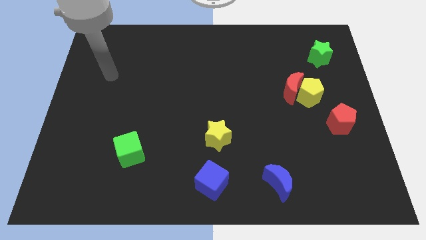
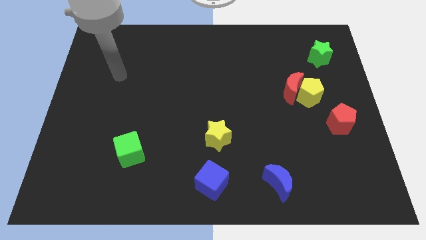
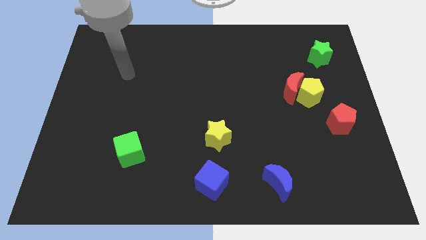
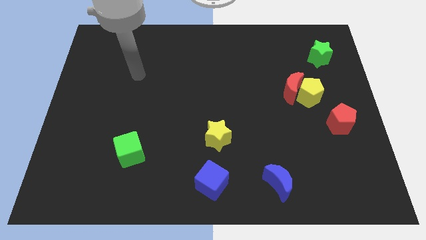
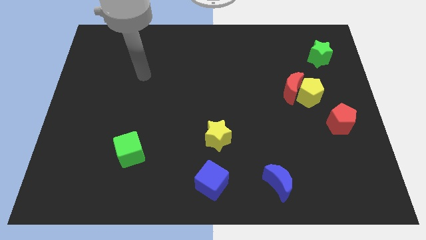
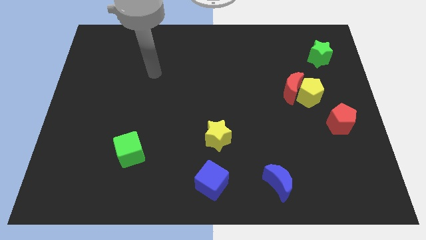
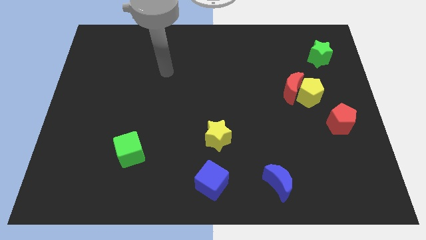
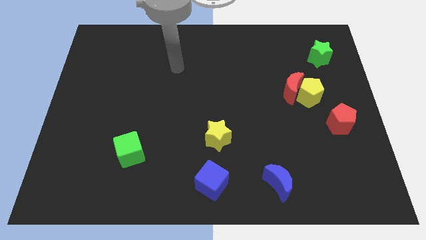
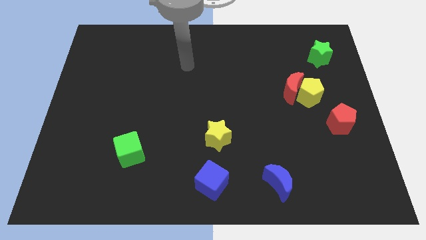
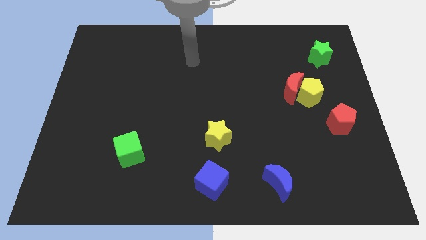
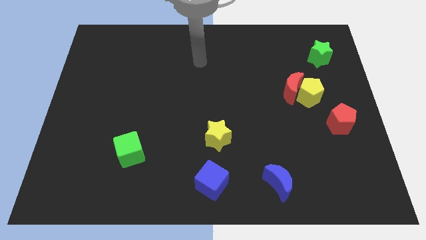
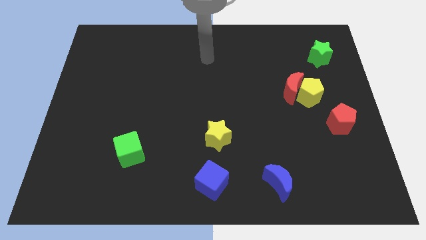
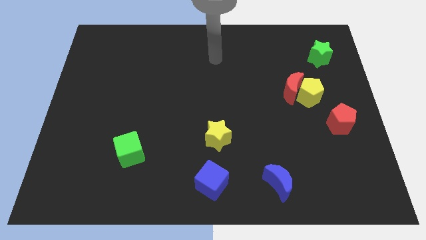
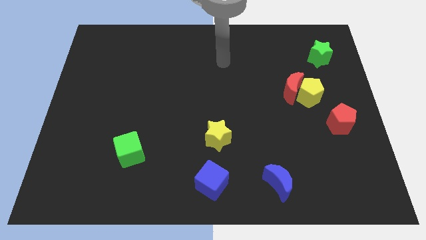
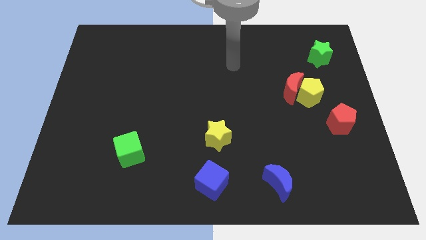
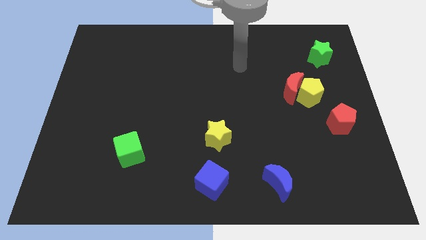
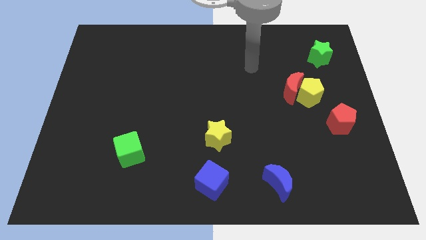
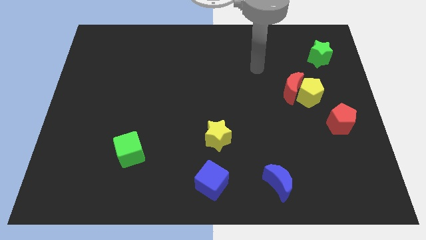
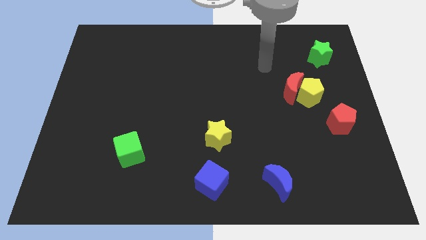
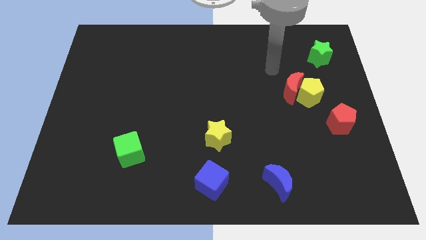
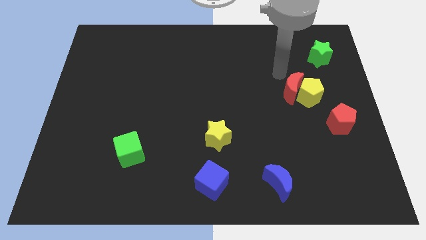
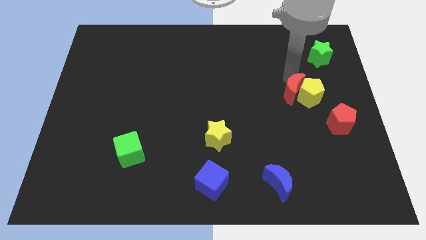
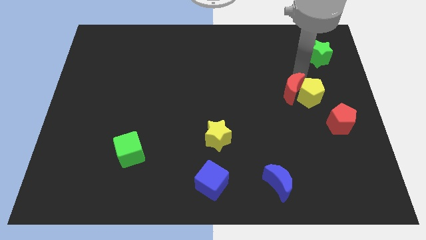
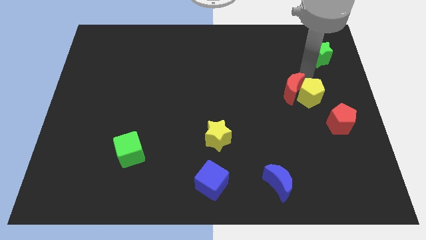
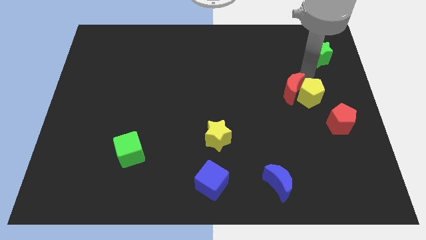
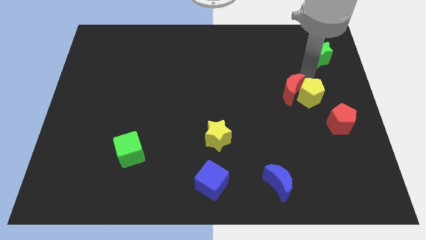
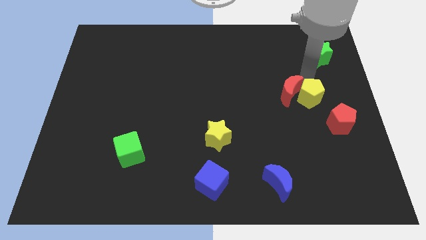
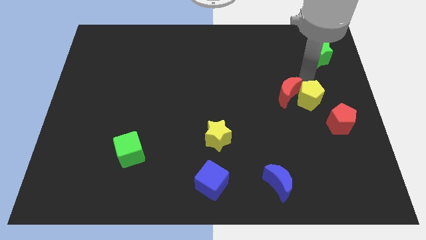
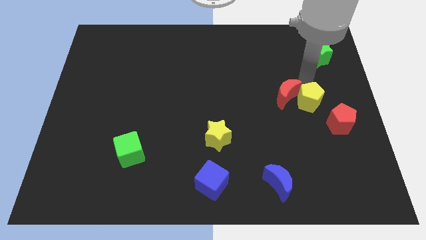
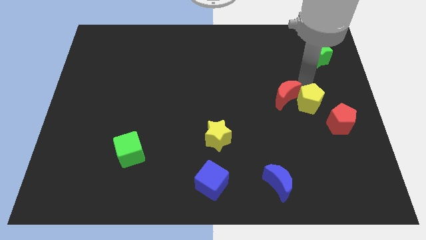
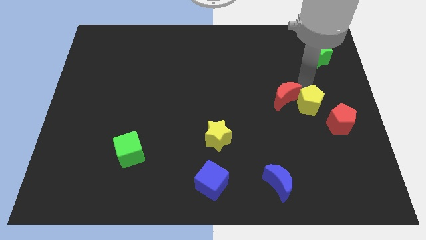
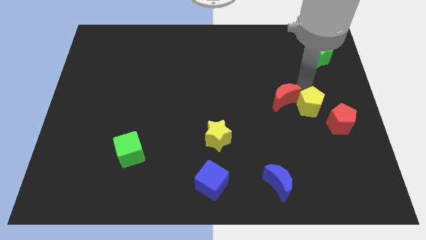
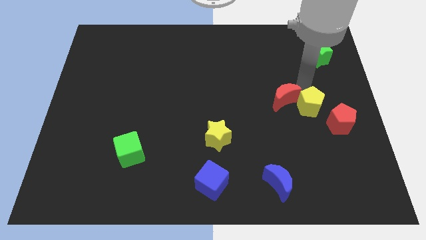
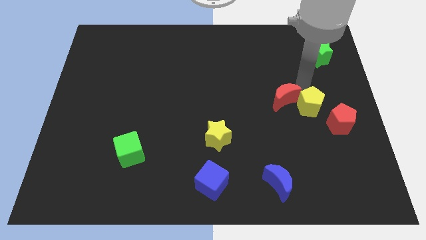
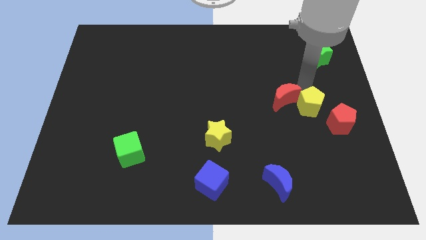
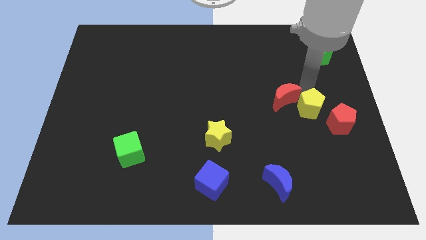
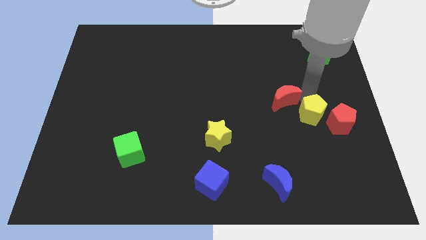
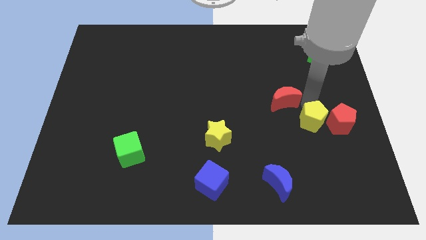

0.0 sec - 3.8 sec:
slide the yellow pentagon down a bit

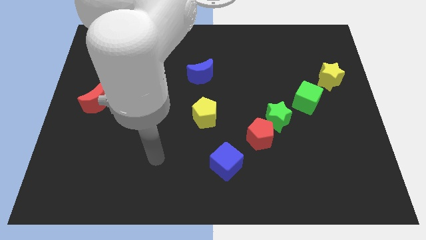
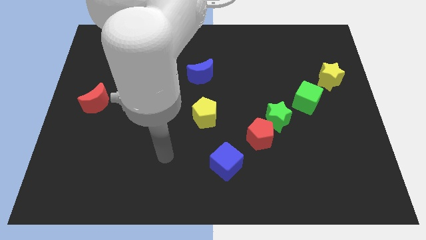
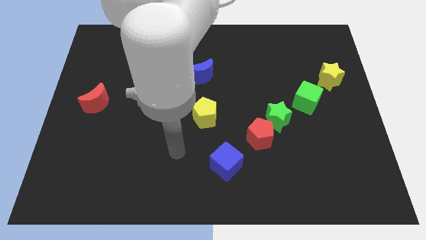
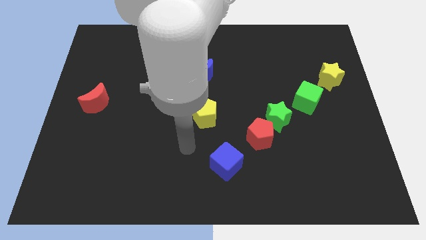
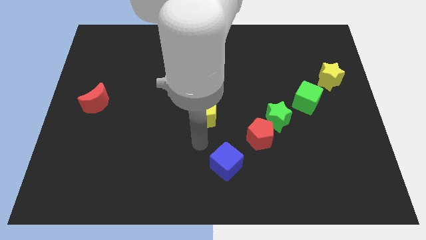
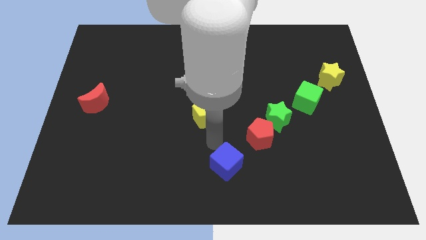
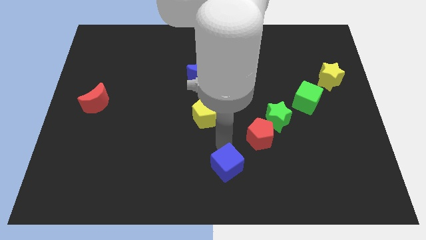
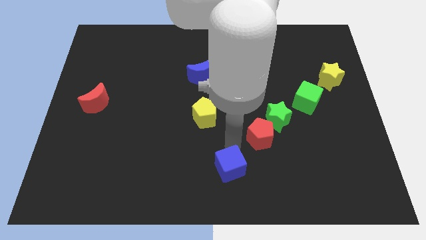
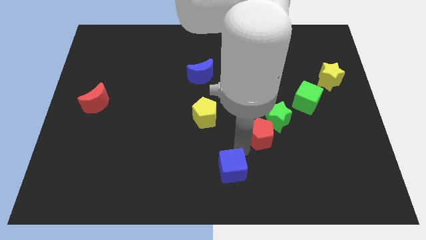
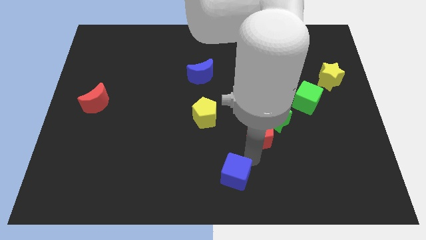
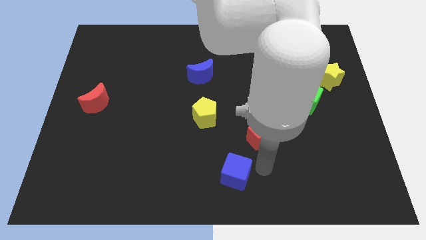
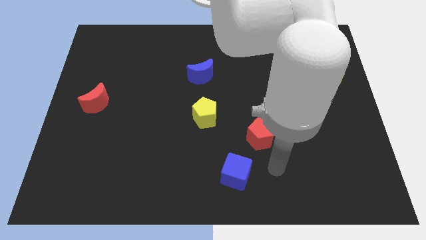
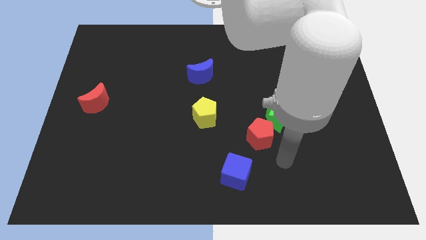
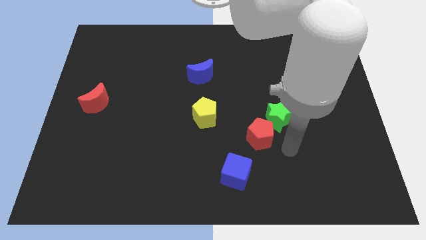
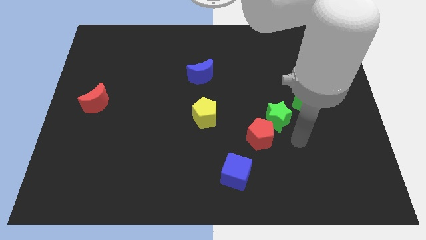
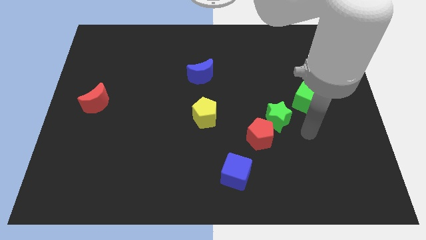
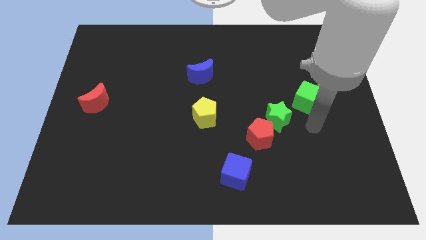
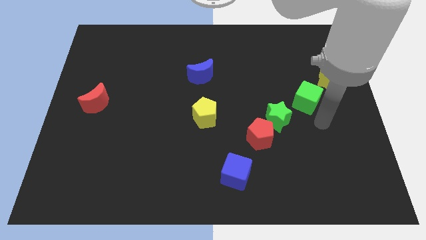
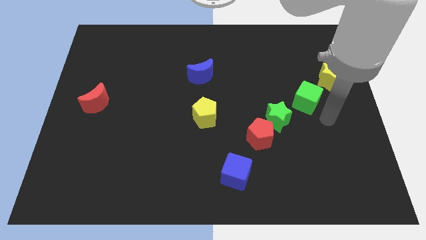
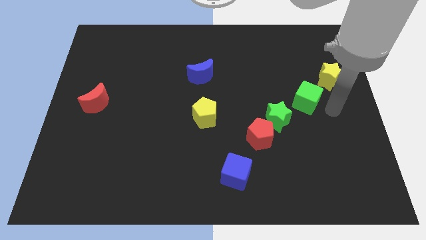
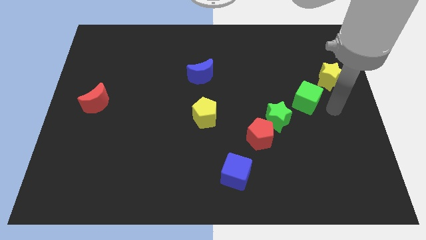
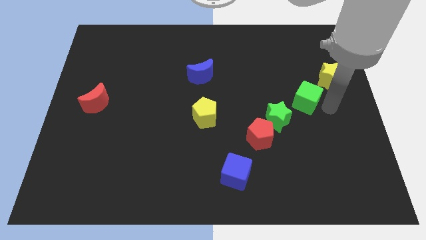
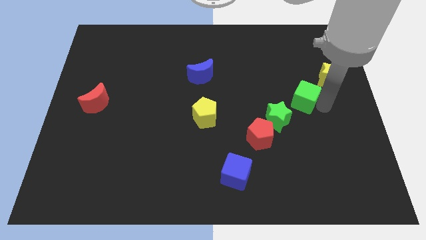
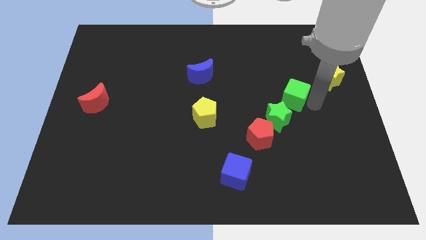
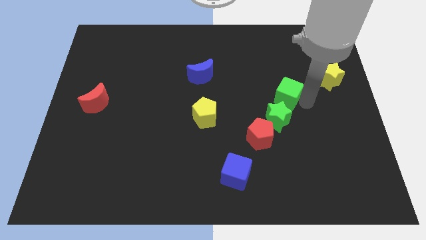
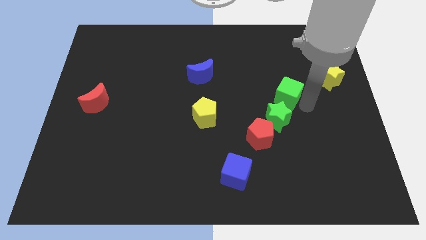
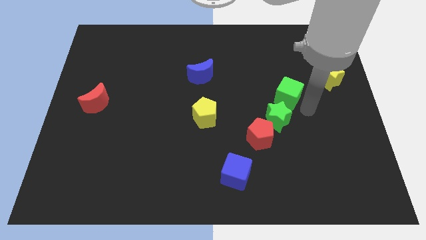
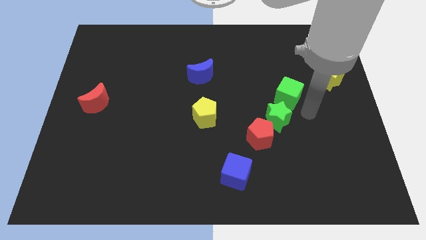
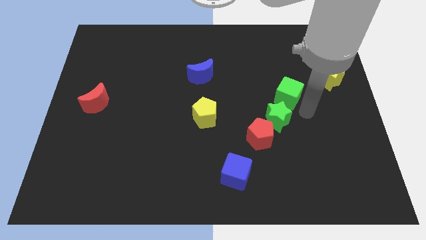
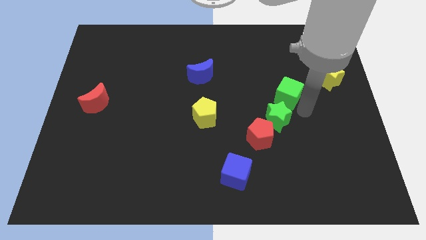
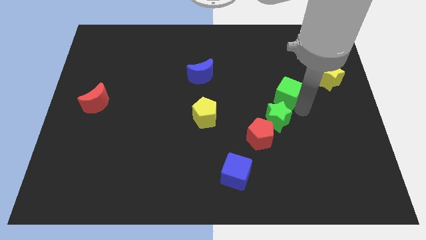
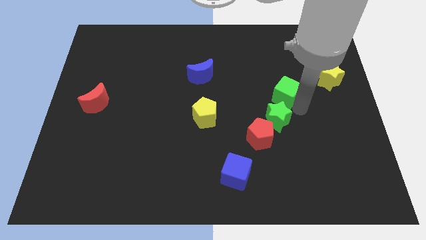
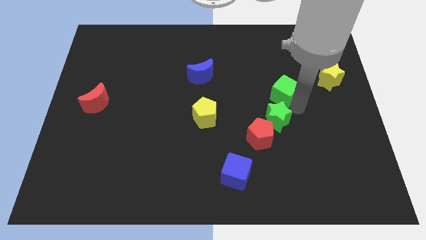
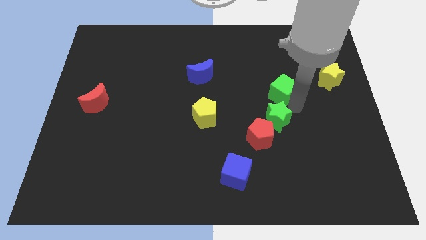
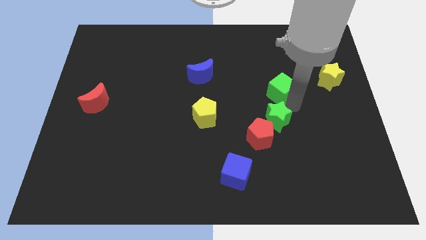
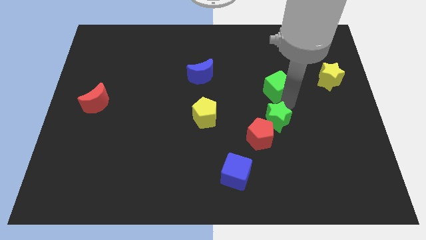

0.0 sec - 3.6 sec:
move the green cube upwards and left diagonally a bit

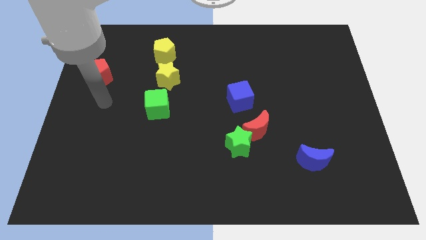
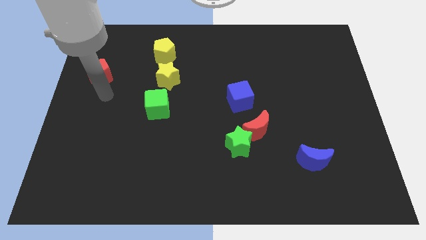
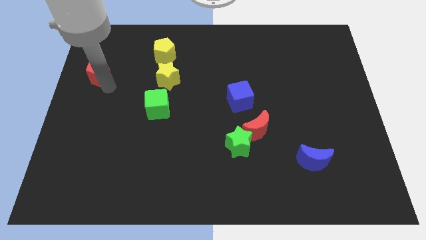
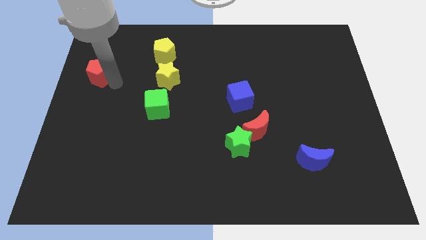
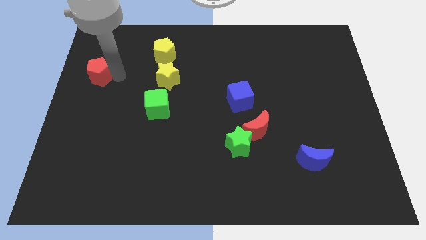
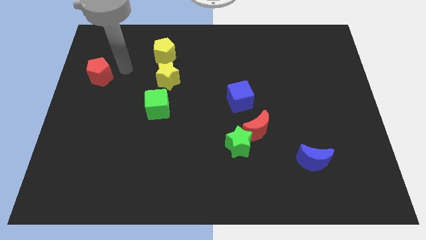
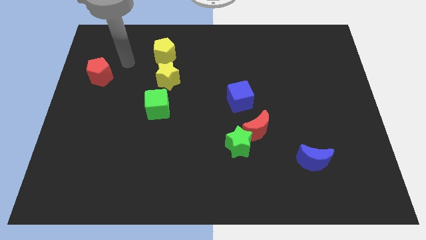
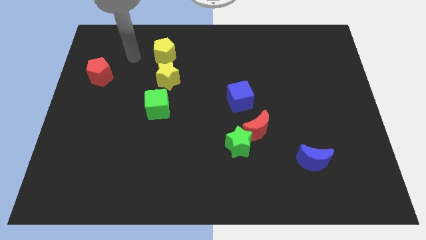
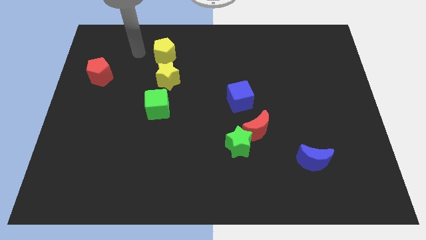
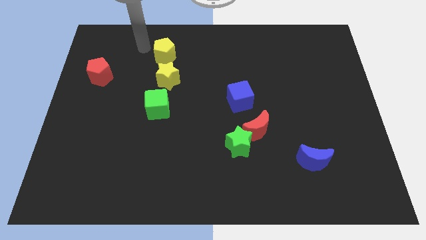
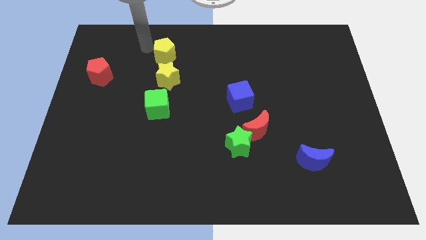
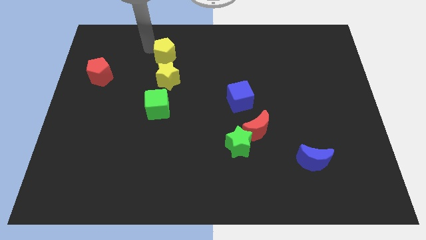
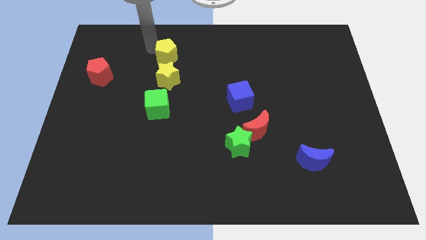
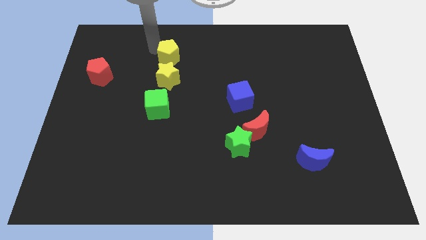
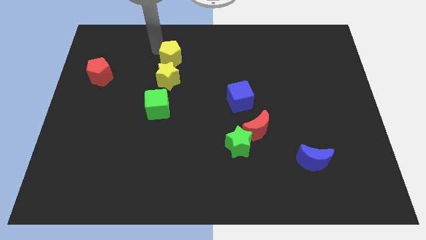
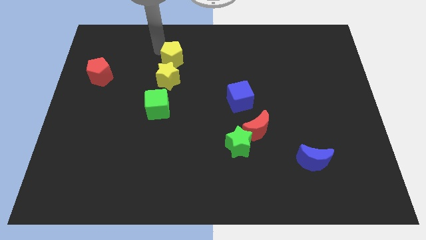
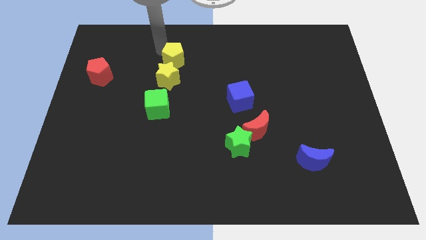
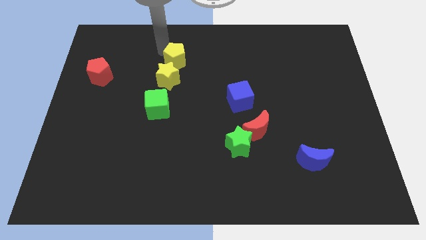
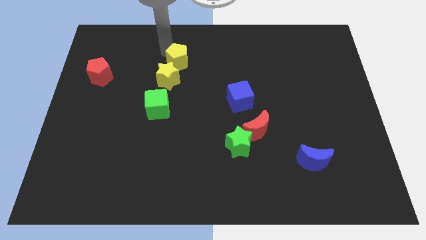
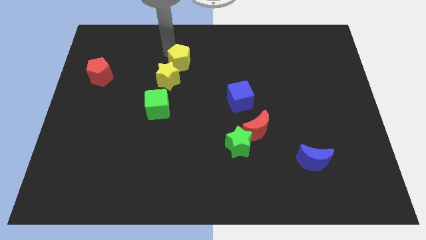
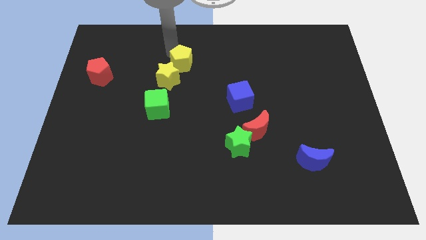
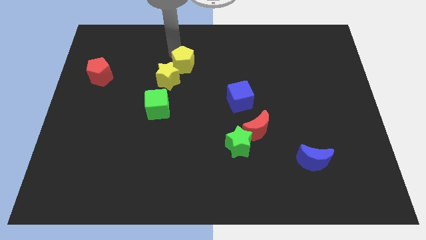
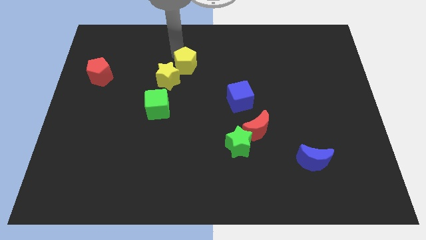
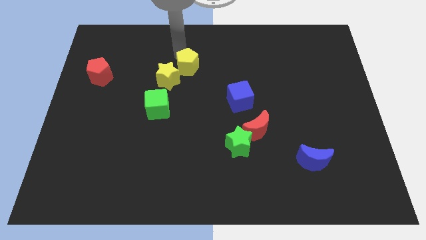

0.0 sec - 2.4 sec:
push the yellow pentagon somewhat downwards and to the right
